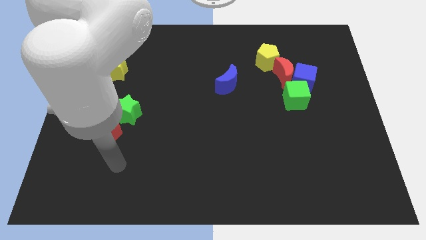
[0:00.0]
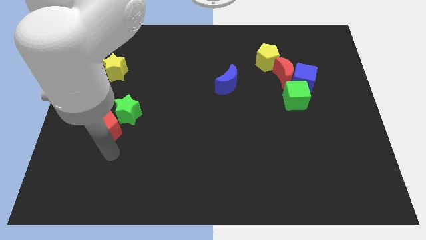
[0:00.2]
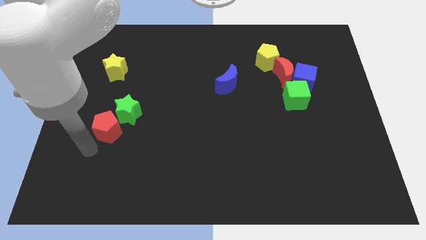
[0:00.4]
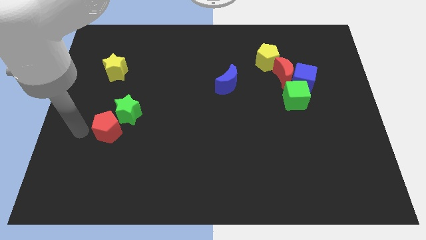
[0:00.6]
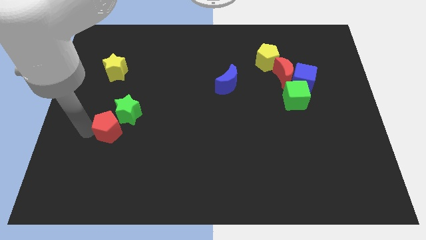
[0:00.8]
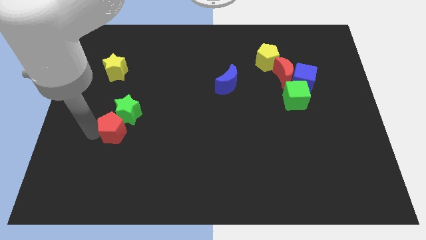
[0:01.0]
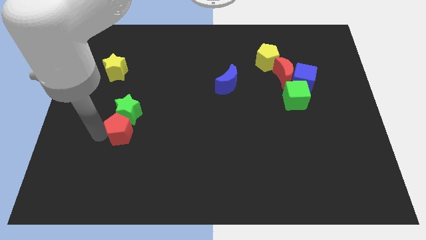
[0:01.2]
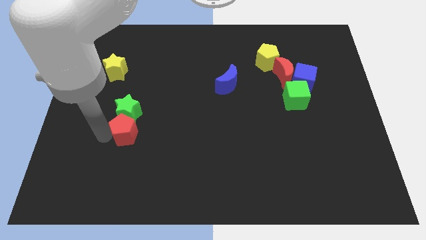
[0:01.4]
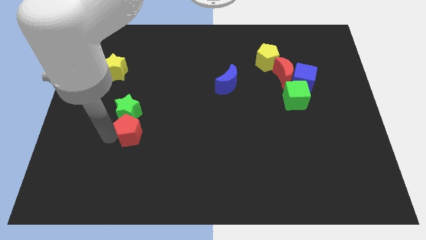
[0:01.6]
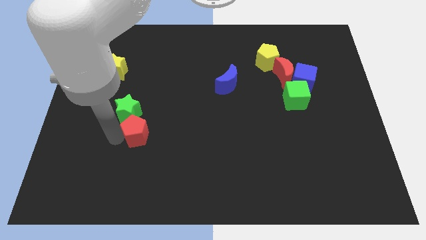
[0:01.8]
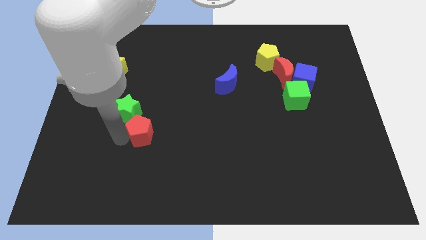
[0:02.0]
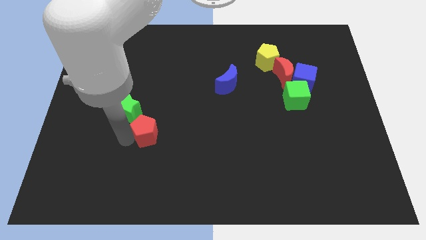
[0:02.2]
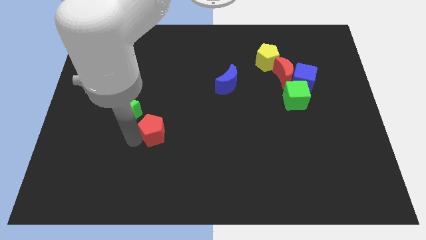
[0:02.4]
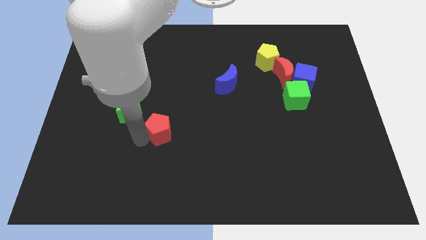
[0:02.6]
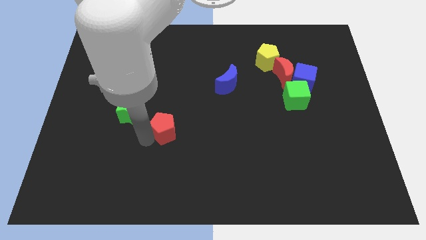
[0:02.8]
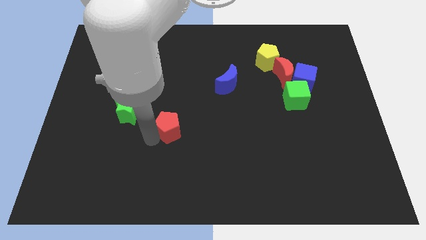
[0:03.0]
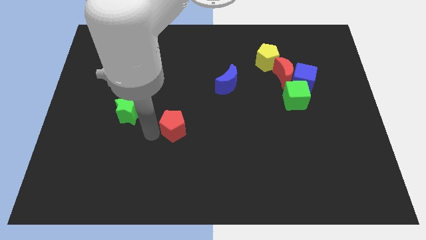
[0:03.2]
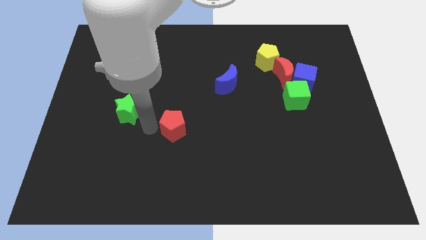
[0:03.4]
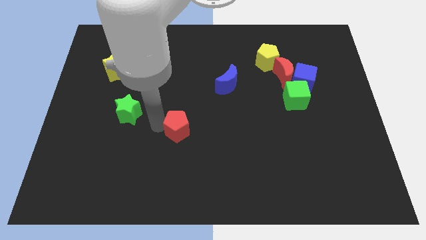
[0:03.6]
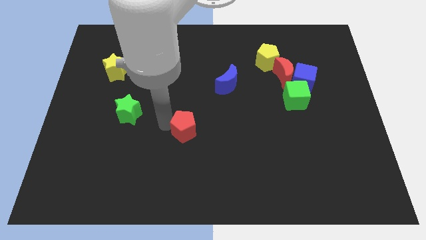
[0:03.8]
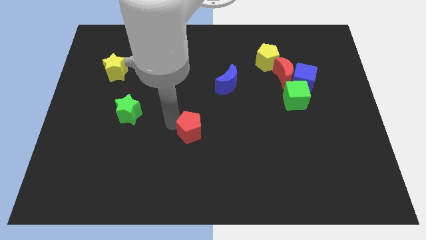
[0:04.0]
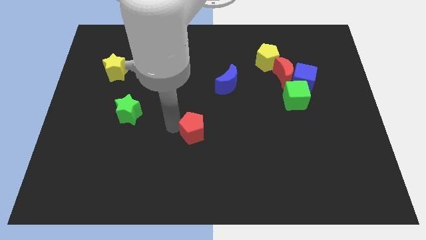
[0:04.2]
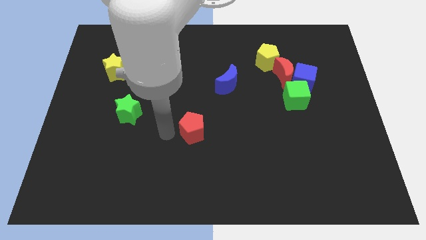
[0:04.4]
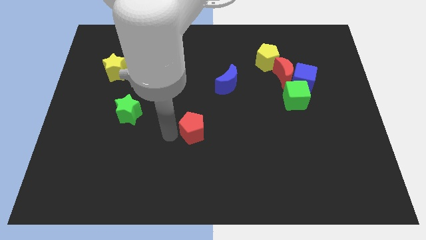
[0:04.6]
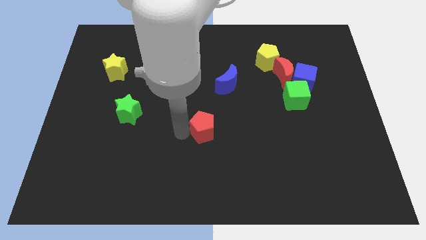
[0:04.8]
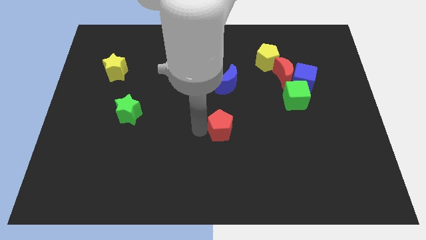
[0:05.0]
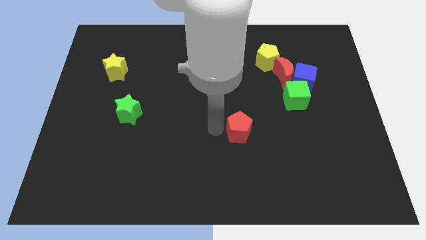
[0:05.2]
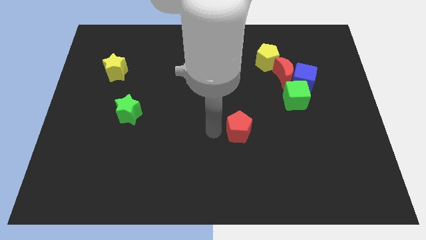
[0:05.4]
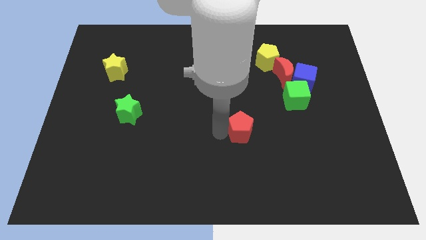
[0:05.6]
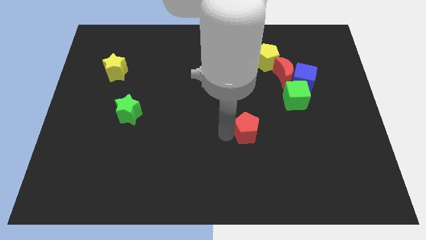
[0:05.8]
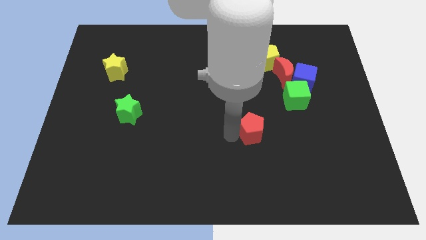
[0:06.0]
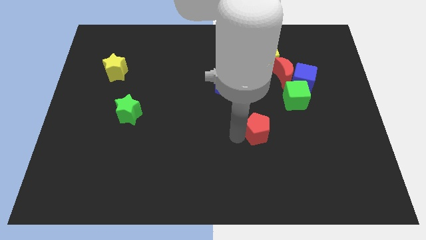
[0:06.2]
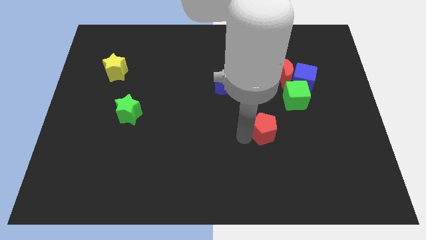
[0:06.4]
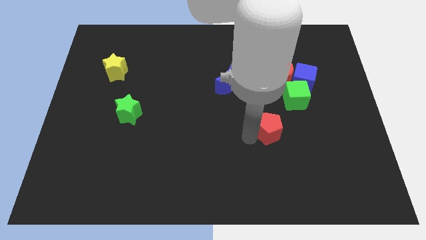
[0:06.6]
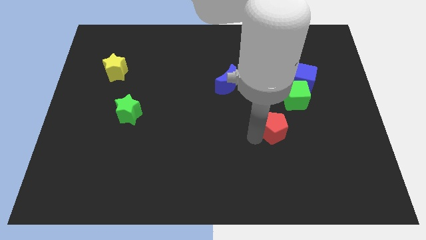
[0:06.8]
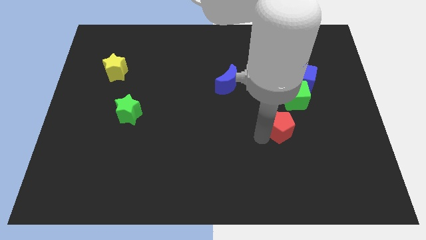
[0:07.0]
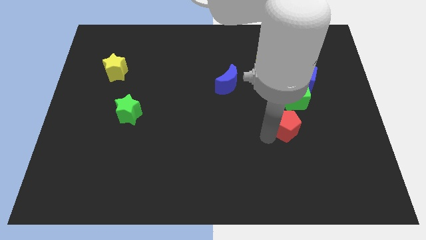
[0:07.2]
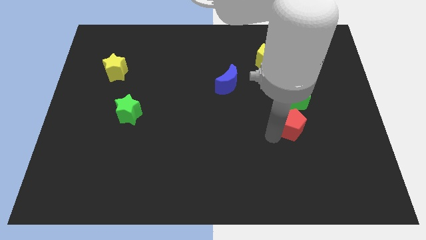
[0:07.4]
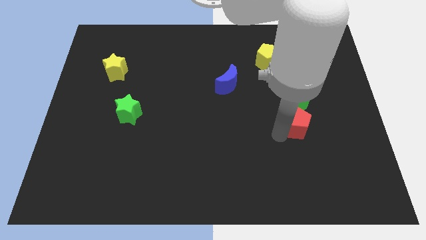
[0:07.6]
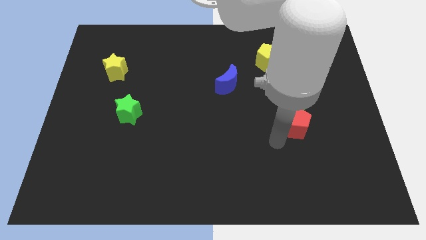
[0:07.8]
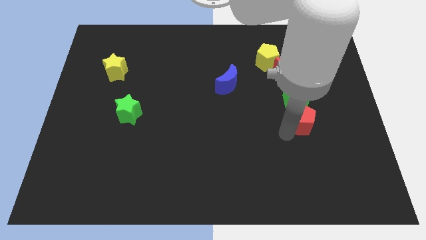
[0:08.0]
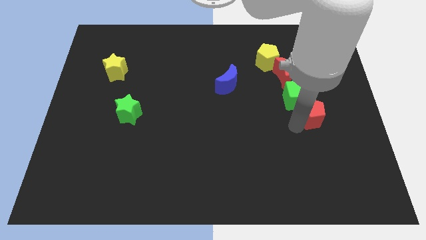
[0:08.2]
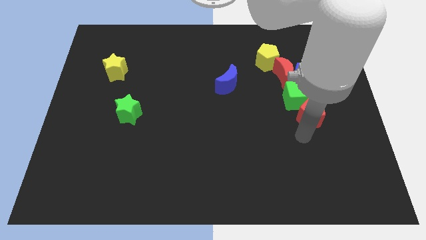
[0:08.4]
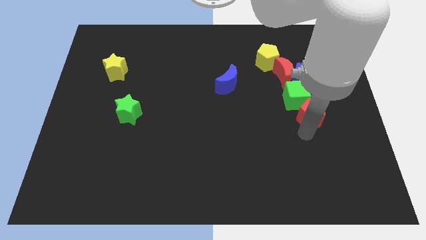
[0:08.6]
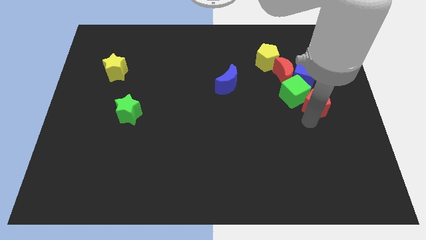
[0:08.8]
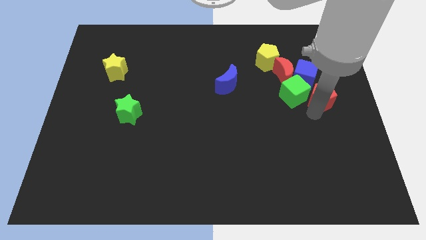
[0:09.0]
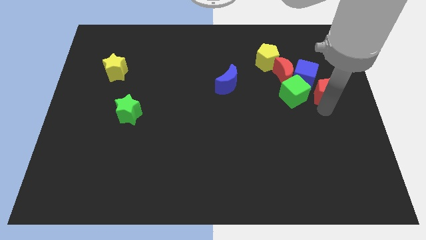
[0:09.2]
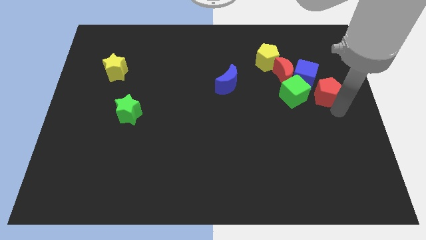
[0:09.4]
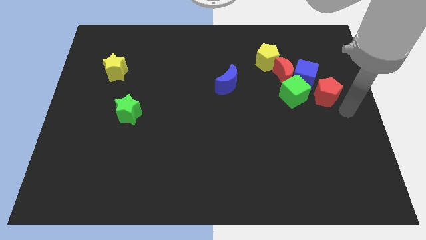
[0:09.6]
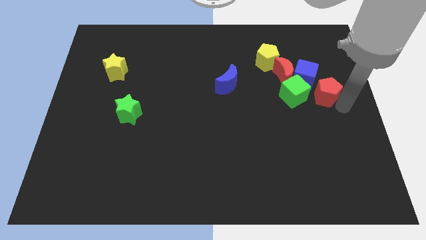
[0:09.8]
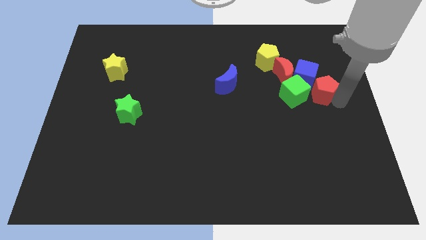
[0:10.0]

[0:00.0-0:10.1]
push the red pentagon close to the blue cube

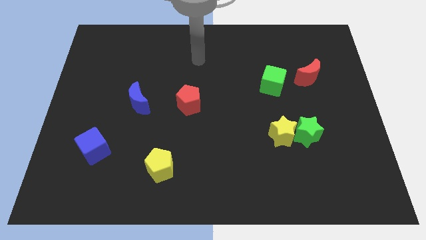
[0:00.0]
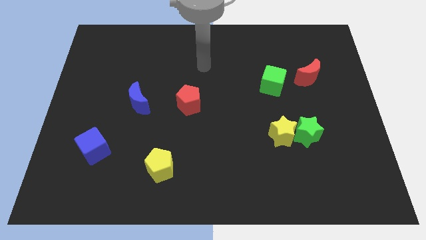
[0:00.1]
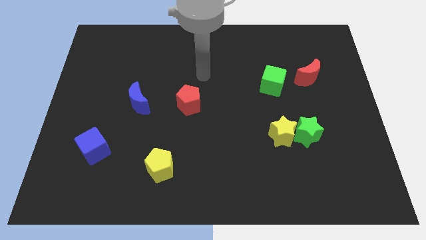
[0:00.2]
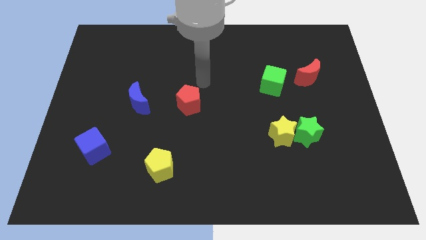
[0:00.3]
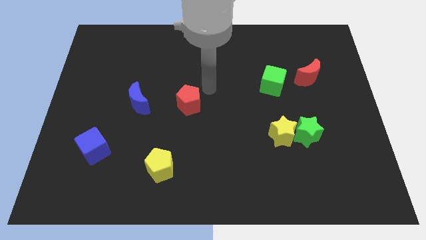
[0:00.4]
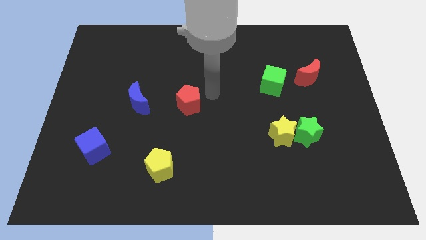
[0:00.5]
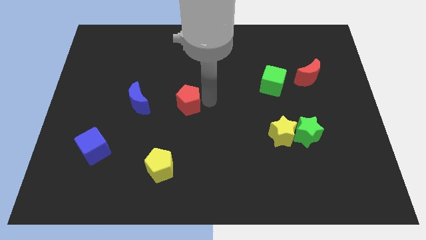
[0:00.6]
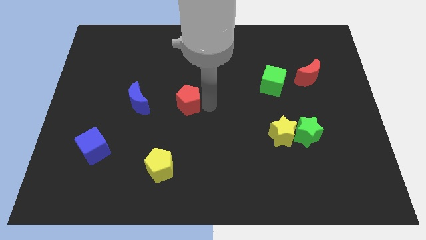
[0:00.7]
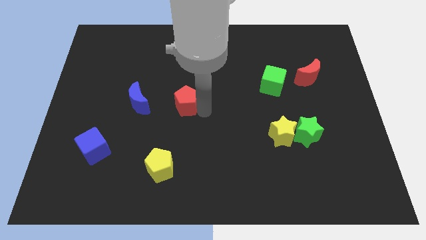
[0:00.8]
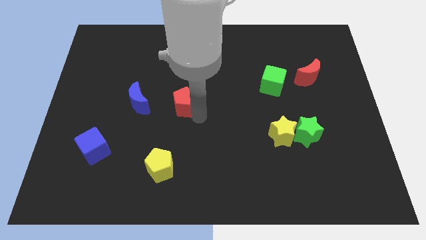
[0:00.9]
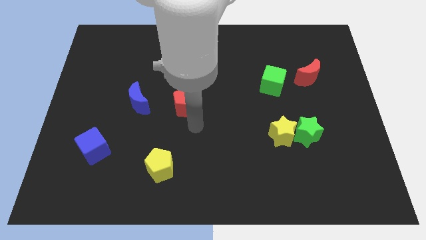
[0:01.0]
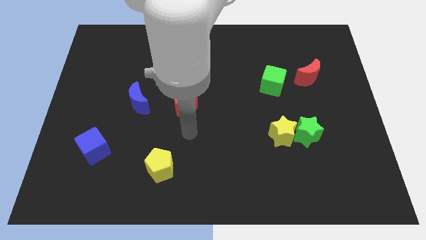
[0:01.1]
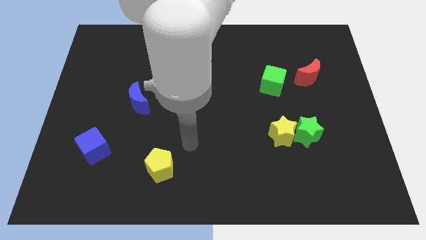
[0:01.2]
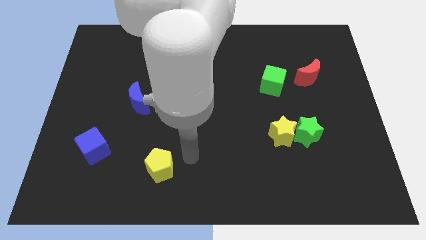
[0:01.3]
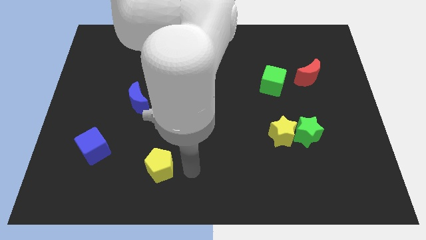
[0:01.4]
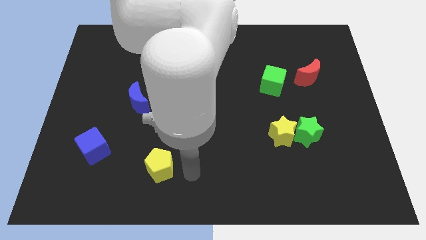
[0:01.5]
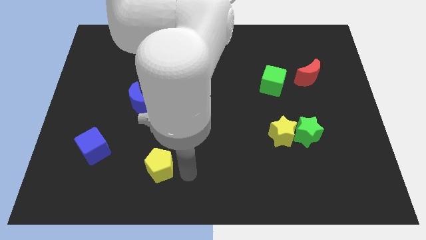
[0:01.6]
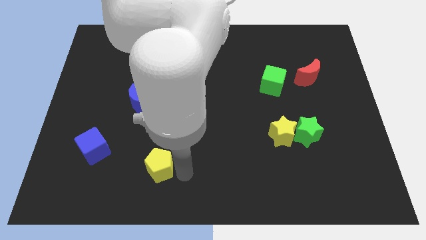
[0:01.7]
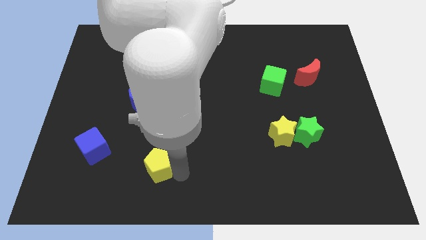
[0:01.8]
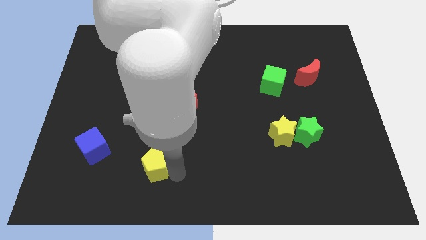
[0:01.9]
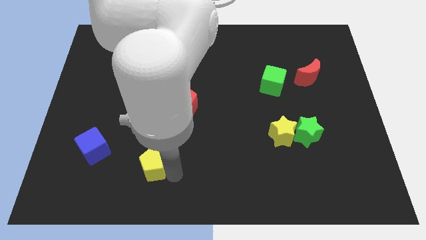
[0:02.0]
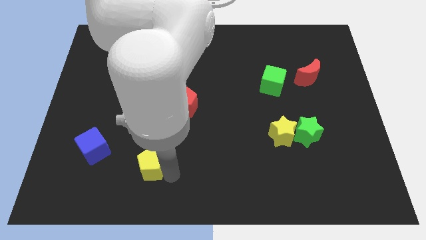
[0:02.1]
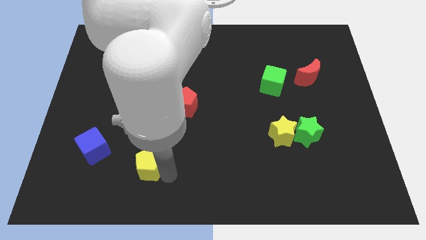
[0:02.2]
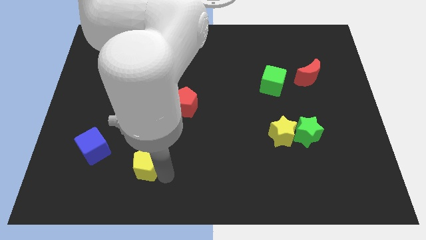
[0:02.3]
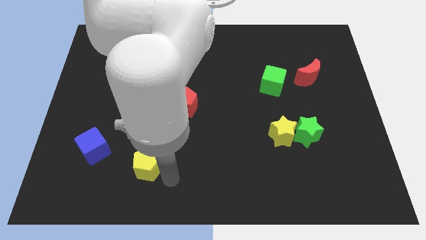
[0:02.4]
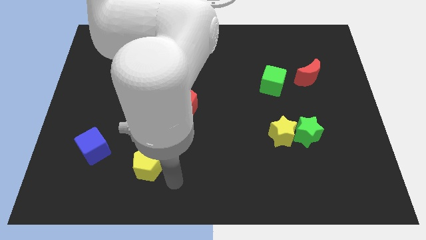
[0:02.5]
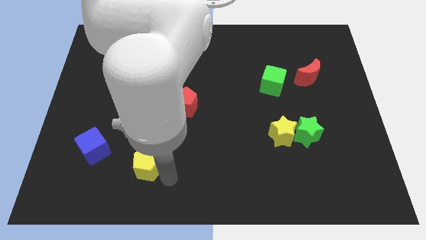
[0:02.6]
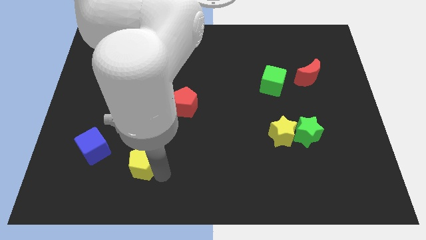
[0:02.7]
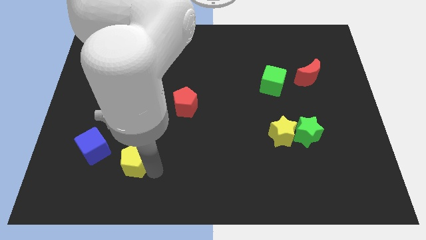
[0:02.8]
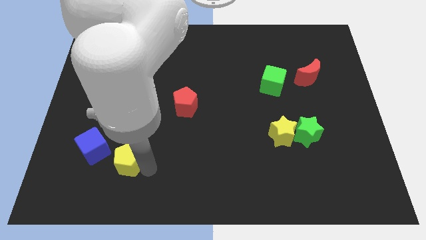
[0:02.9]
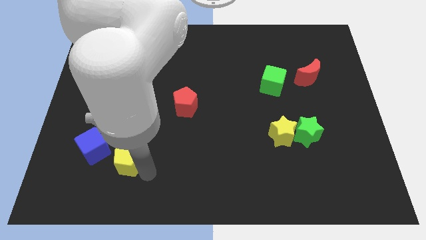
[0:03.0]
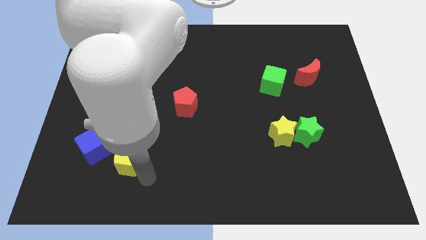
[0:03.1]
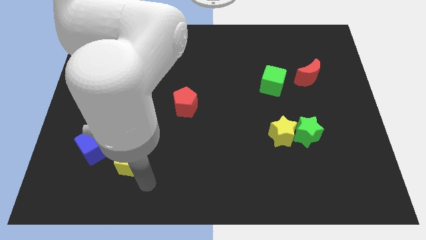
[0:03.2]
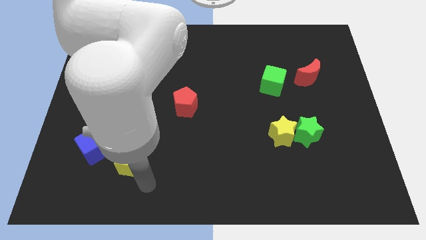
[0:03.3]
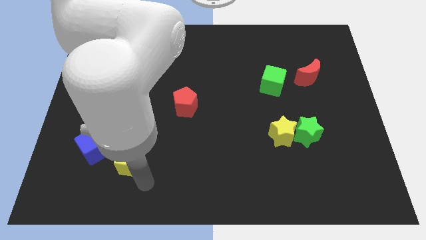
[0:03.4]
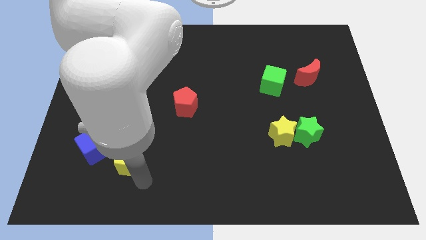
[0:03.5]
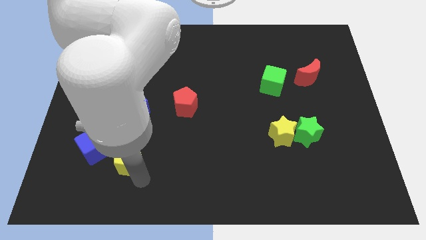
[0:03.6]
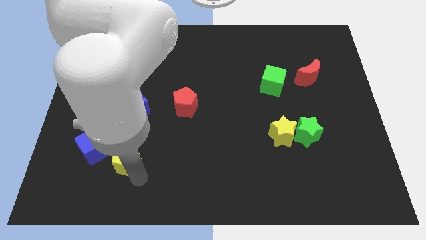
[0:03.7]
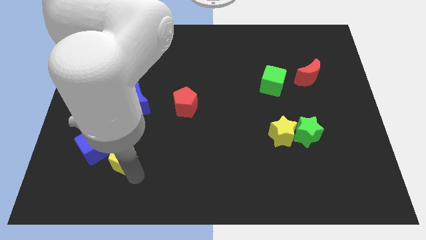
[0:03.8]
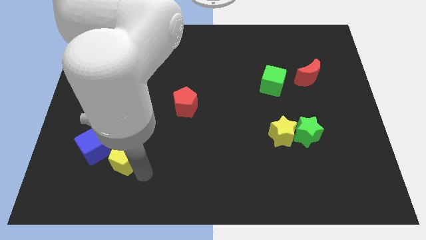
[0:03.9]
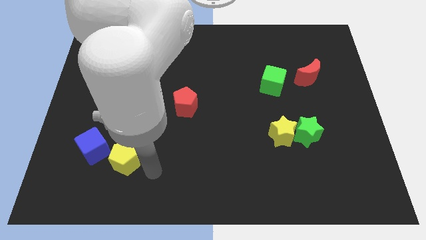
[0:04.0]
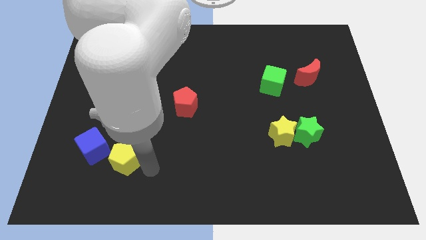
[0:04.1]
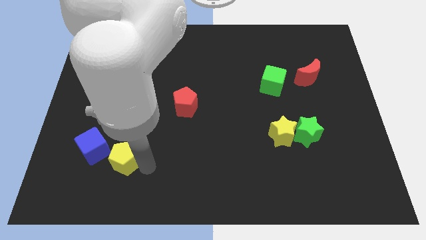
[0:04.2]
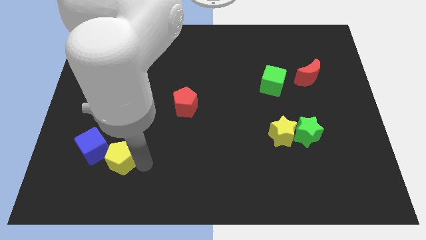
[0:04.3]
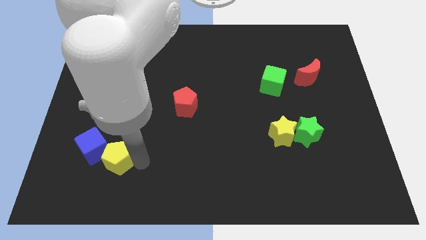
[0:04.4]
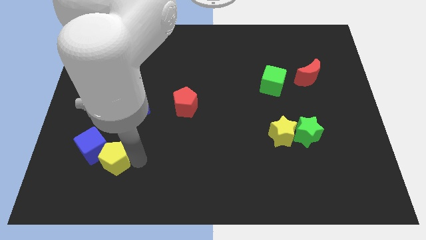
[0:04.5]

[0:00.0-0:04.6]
slide the yellow pentagon to the blue cube
